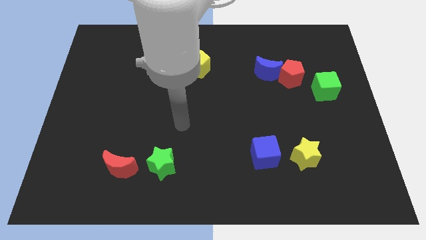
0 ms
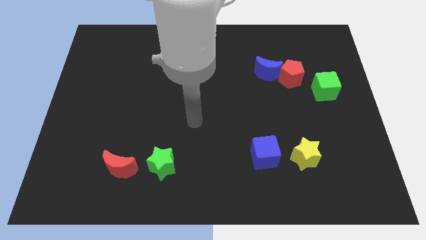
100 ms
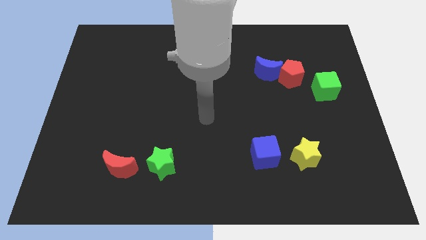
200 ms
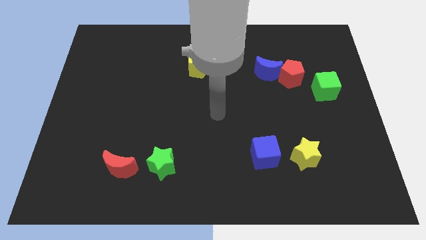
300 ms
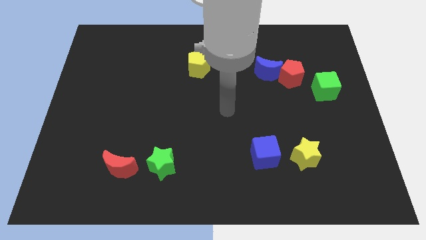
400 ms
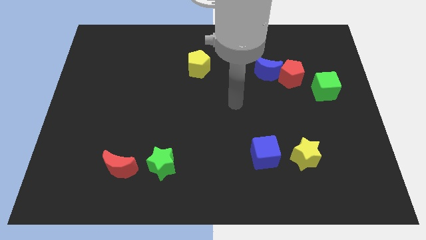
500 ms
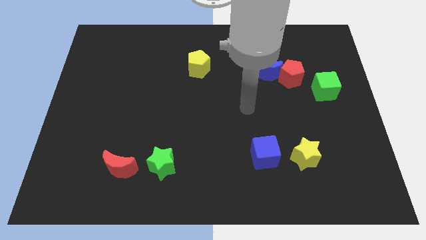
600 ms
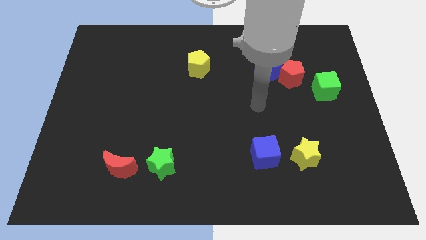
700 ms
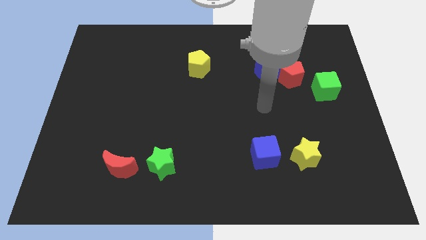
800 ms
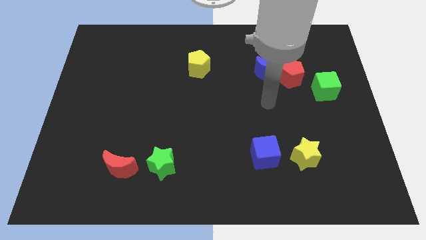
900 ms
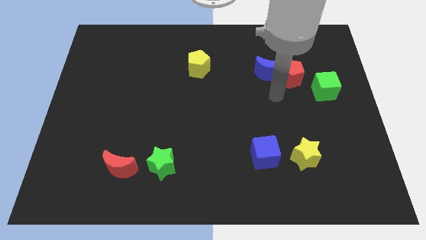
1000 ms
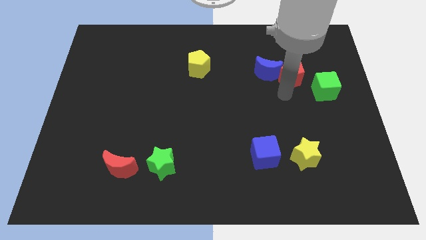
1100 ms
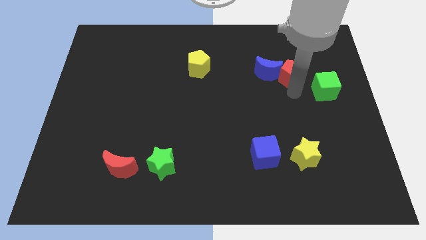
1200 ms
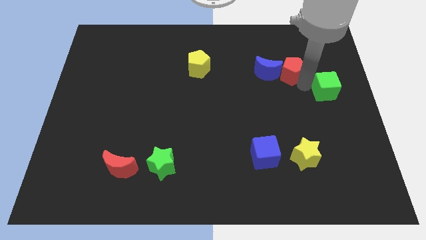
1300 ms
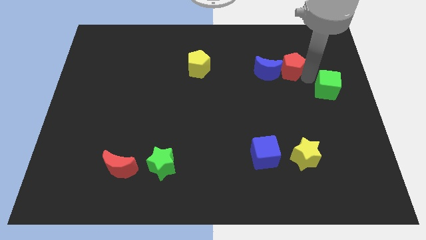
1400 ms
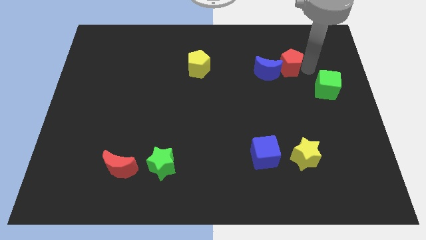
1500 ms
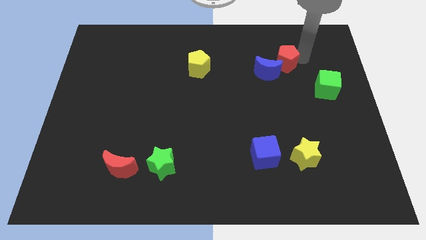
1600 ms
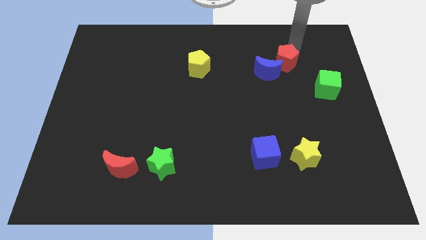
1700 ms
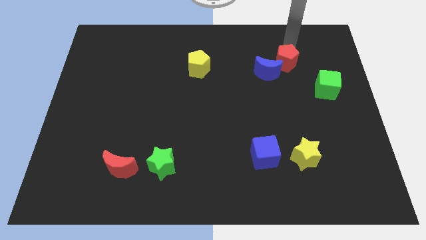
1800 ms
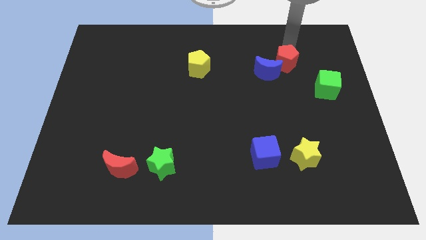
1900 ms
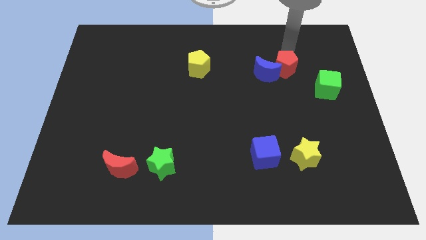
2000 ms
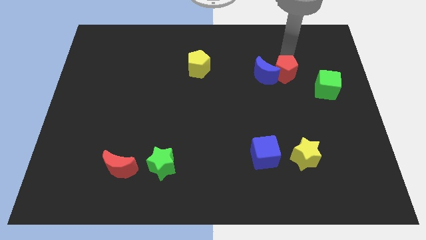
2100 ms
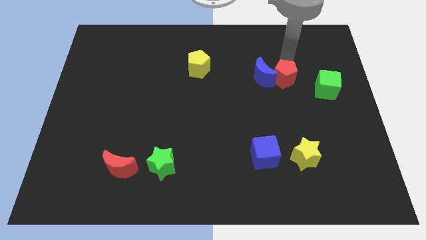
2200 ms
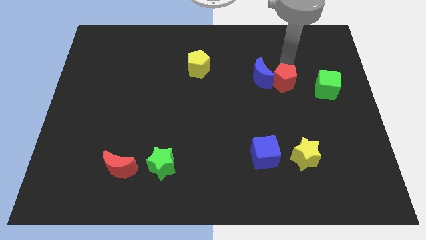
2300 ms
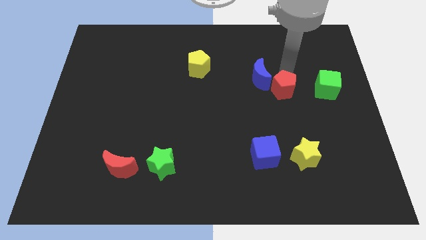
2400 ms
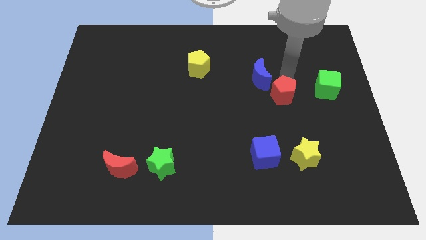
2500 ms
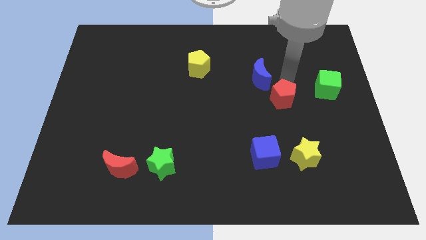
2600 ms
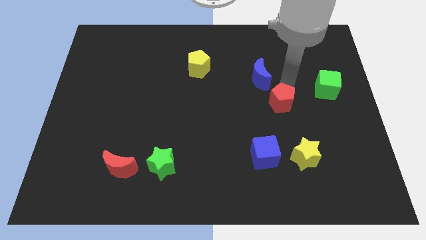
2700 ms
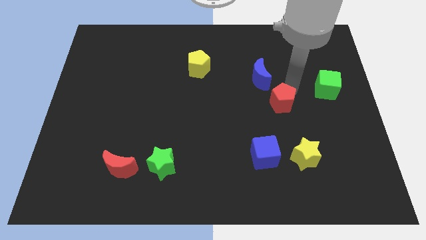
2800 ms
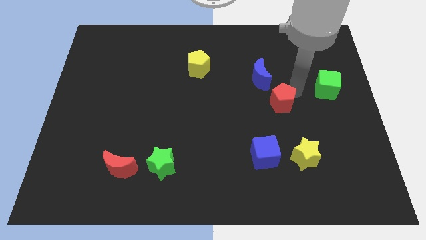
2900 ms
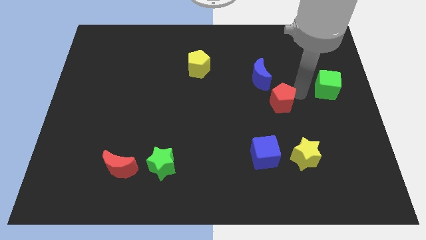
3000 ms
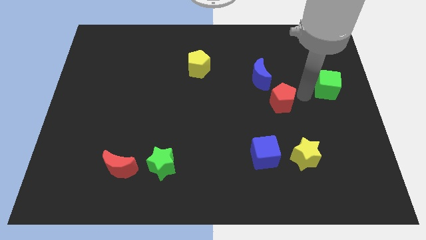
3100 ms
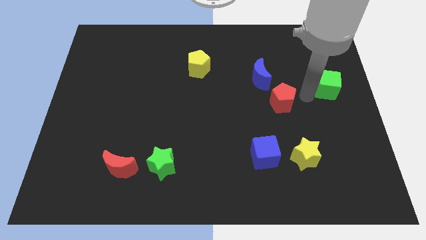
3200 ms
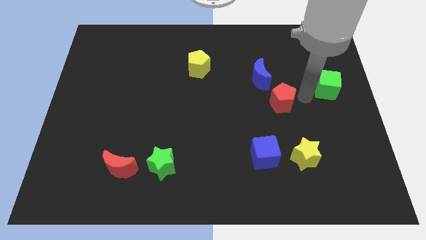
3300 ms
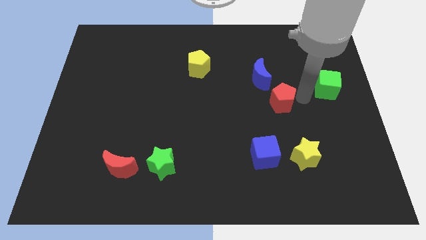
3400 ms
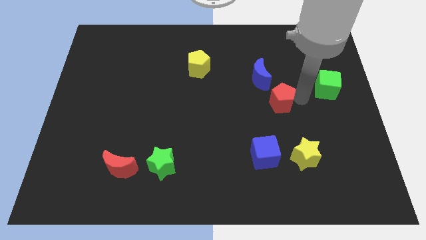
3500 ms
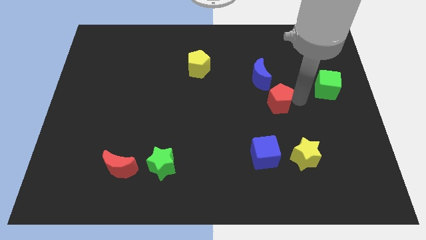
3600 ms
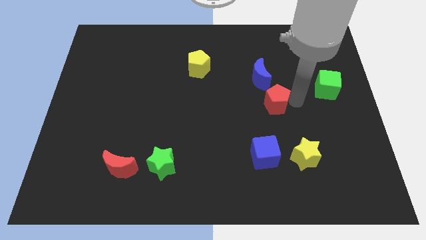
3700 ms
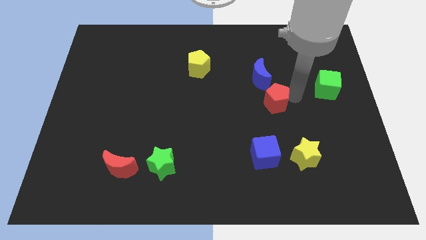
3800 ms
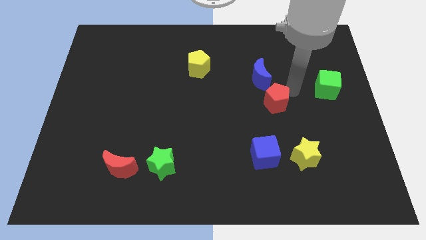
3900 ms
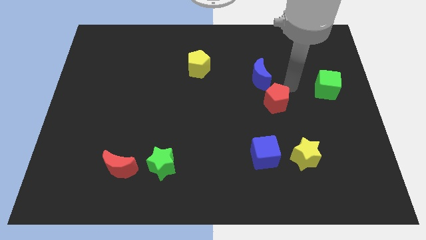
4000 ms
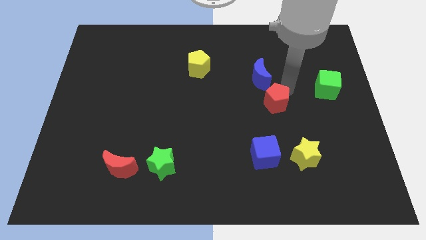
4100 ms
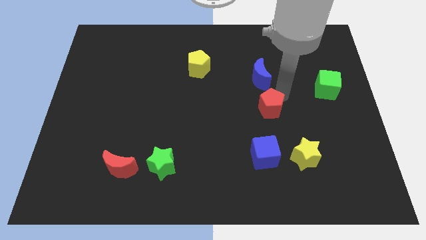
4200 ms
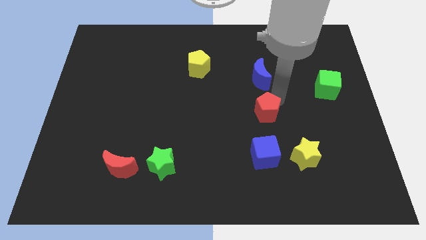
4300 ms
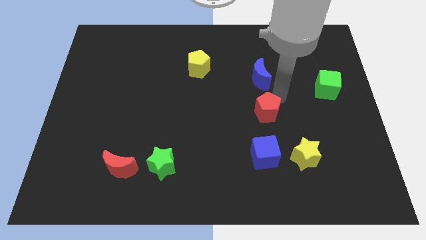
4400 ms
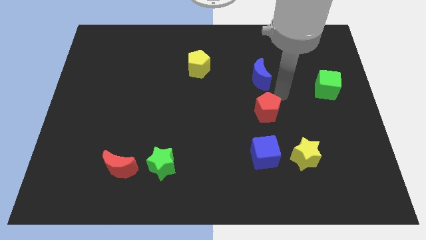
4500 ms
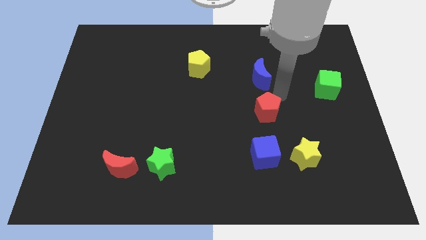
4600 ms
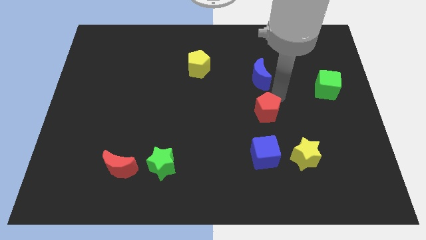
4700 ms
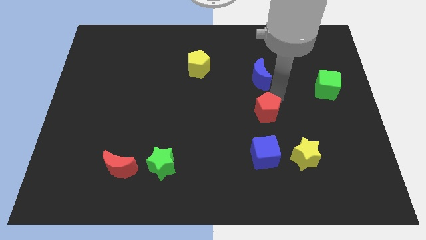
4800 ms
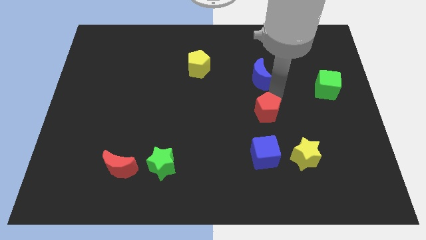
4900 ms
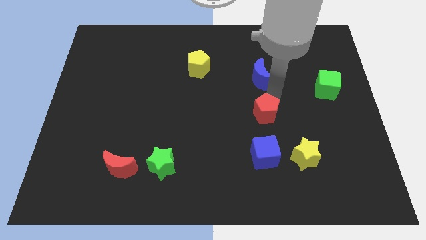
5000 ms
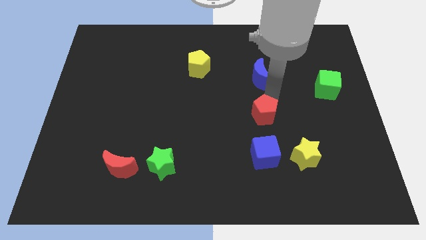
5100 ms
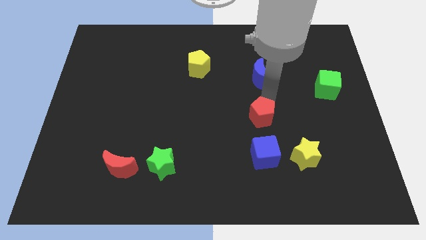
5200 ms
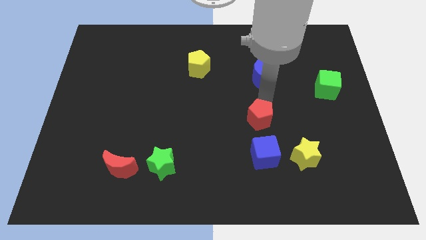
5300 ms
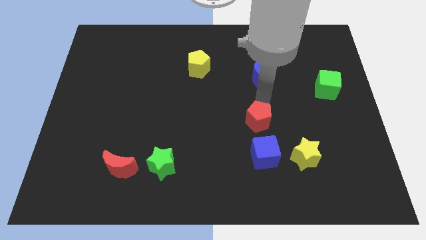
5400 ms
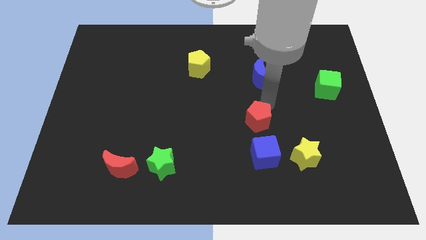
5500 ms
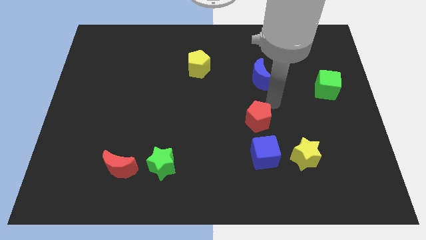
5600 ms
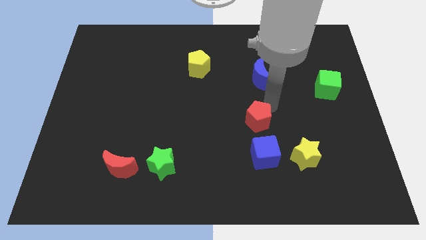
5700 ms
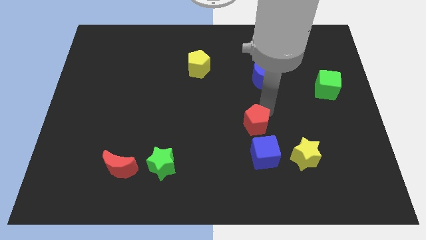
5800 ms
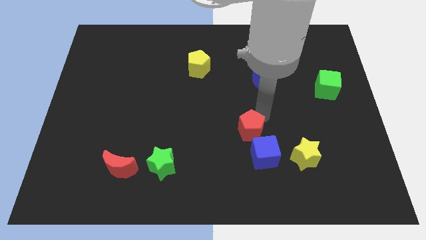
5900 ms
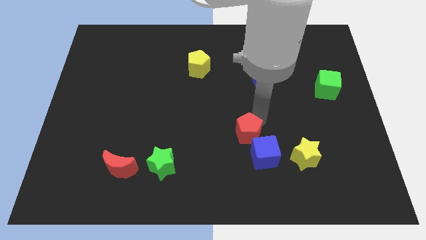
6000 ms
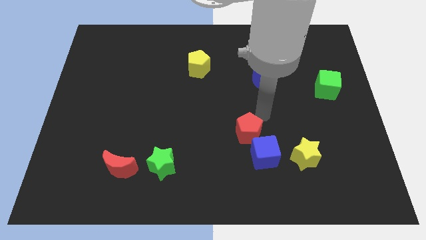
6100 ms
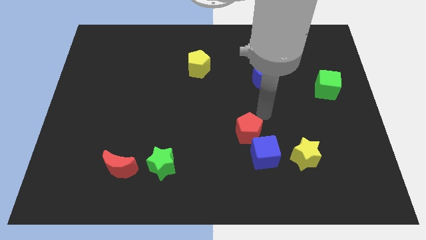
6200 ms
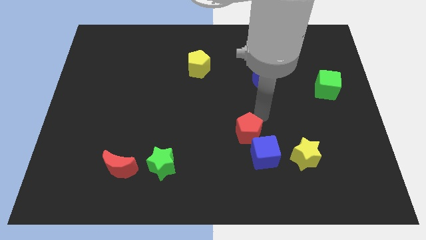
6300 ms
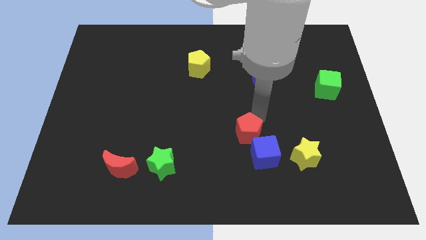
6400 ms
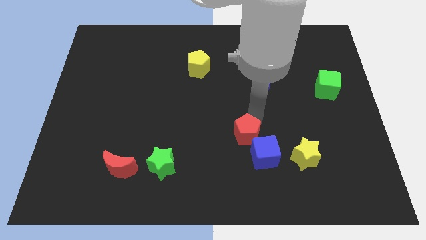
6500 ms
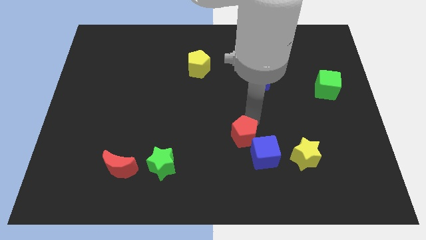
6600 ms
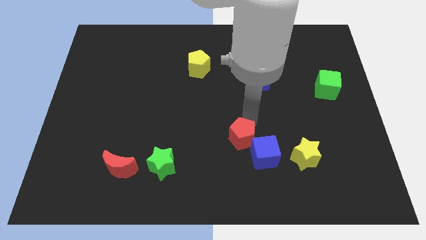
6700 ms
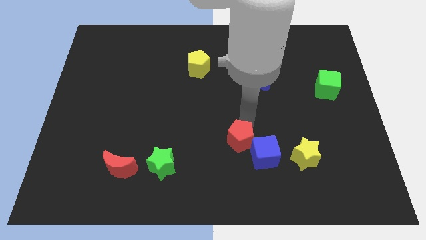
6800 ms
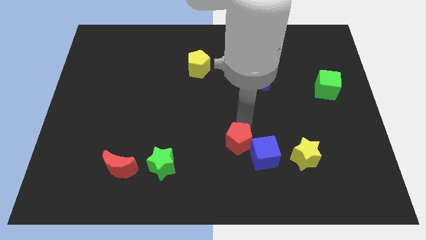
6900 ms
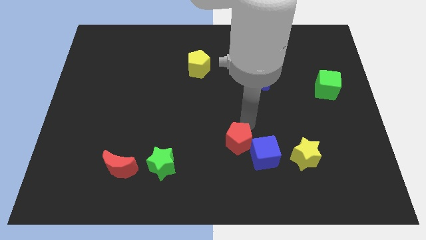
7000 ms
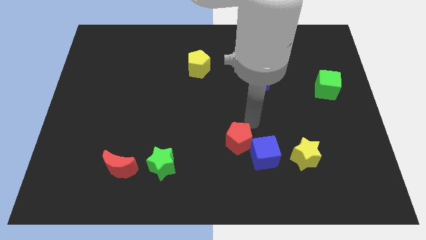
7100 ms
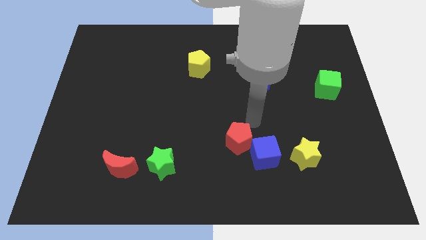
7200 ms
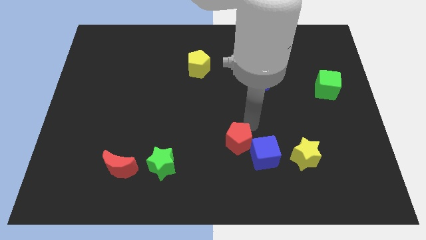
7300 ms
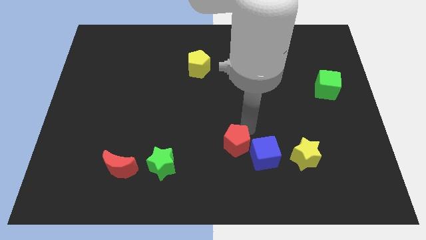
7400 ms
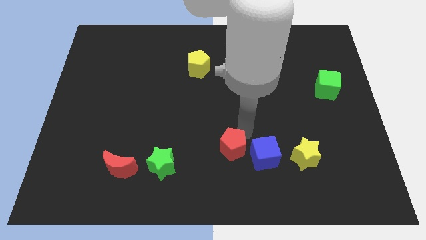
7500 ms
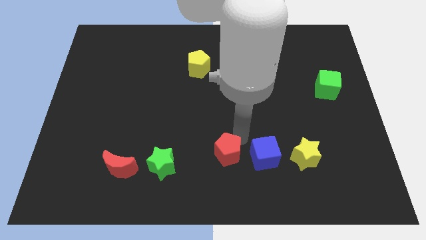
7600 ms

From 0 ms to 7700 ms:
put the red pentagon right of the green star
